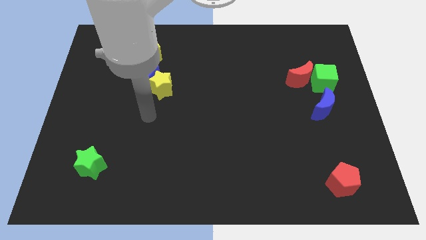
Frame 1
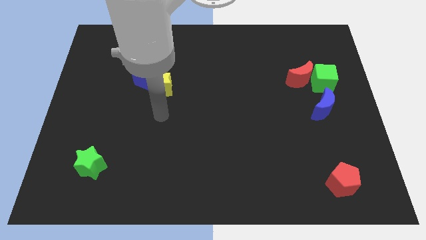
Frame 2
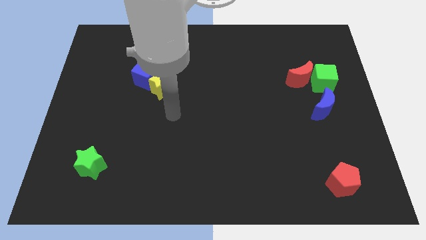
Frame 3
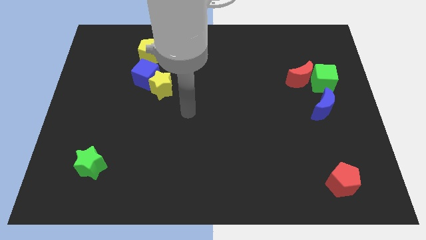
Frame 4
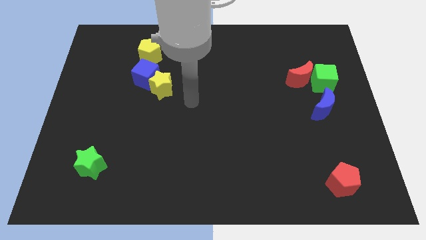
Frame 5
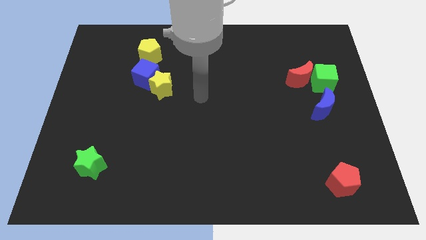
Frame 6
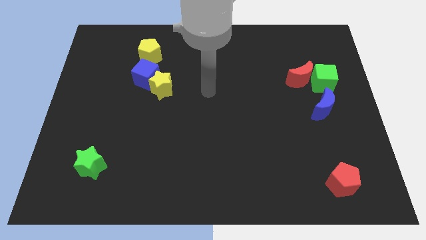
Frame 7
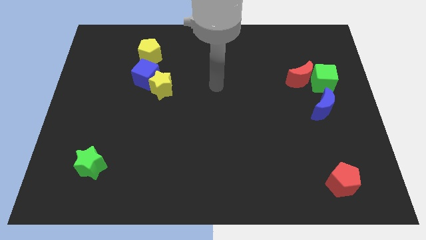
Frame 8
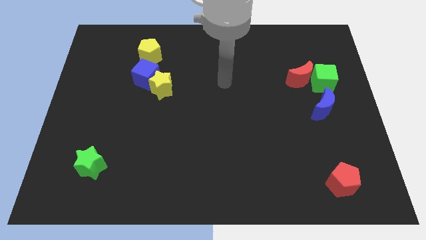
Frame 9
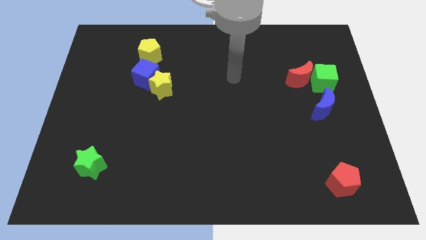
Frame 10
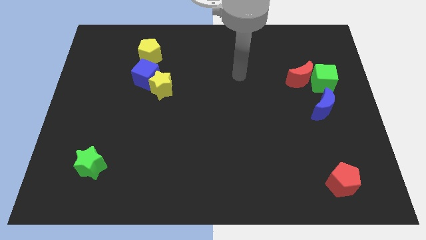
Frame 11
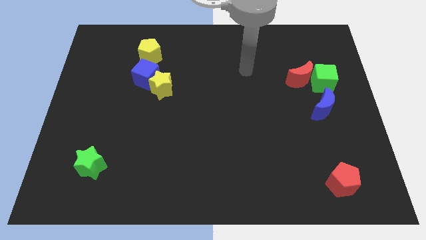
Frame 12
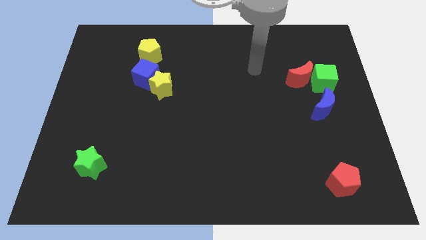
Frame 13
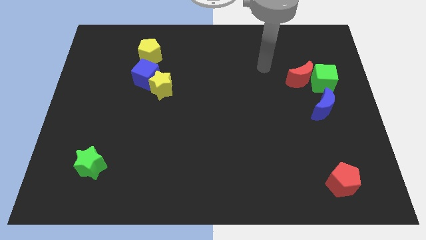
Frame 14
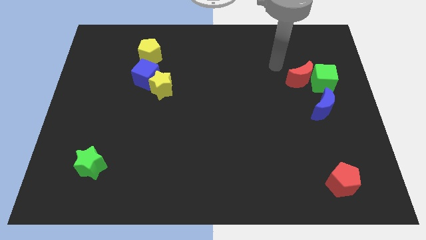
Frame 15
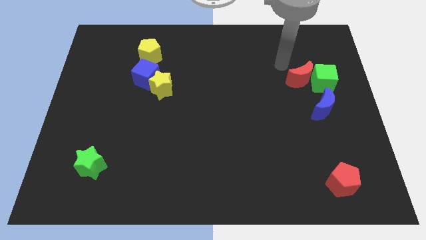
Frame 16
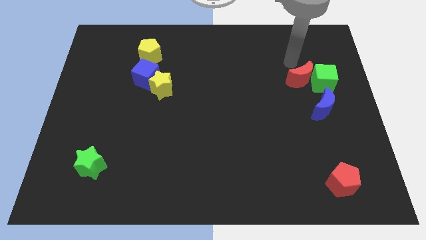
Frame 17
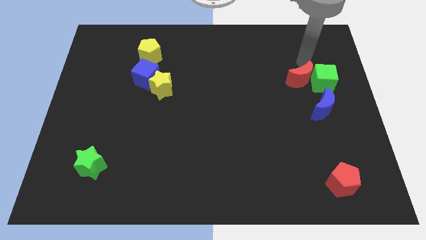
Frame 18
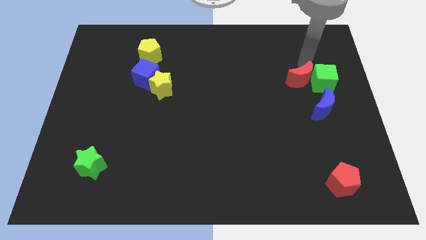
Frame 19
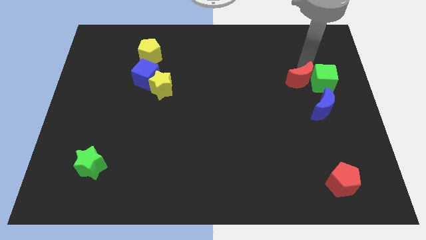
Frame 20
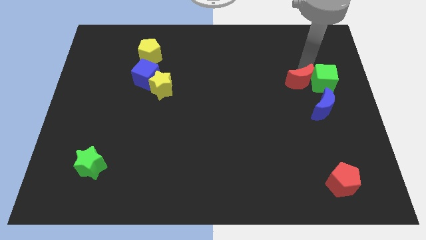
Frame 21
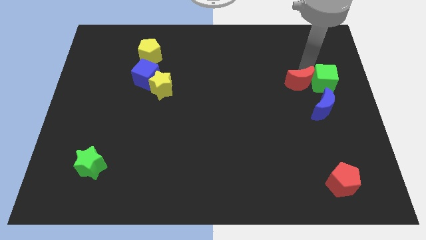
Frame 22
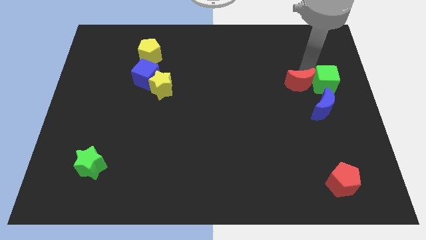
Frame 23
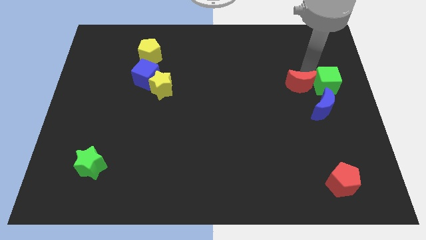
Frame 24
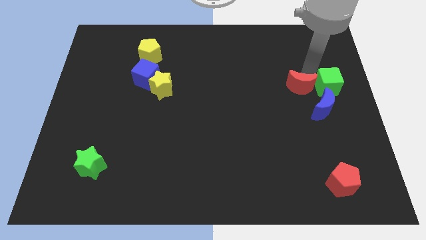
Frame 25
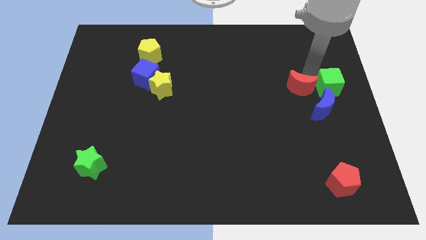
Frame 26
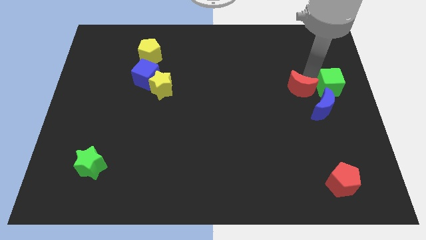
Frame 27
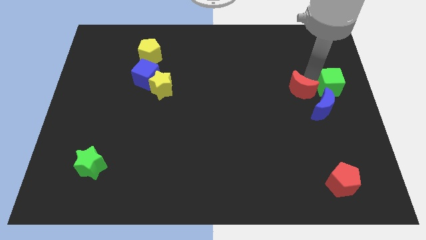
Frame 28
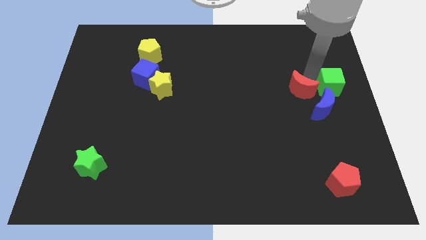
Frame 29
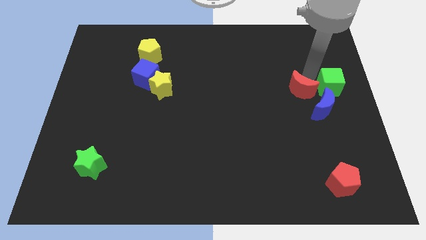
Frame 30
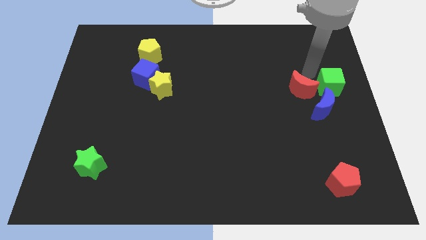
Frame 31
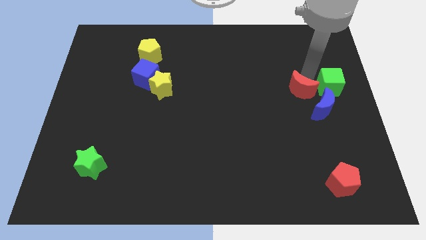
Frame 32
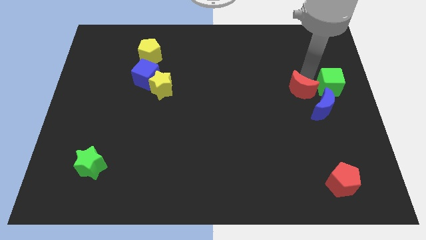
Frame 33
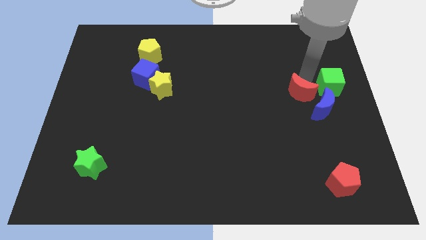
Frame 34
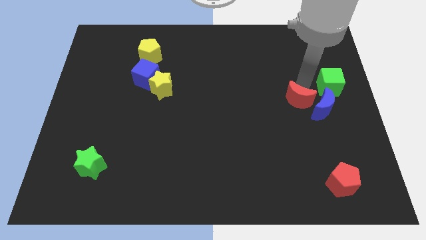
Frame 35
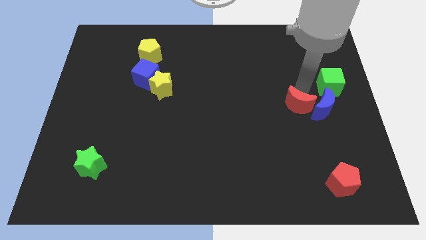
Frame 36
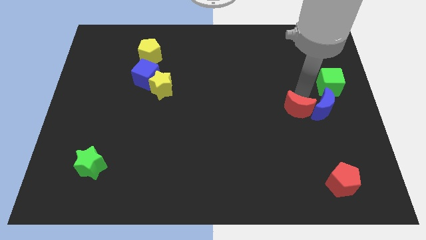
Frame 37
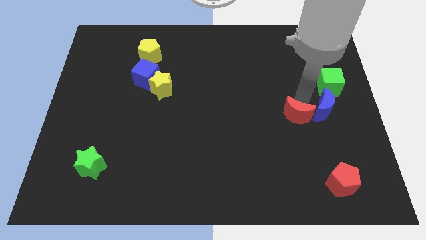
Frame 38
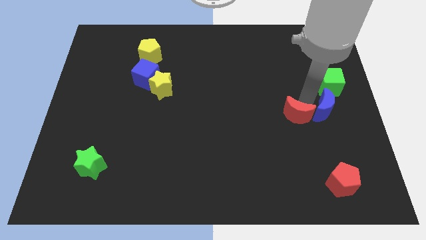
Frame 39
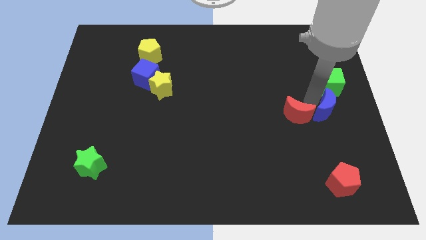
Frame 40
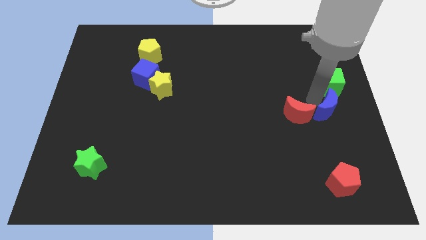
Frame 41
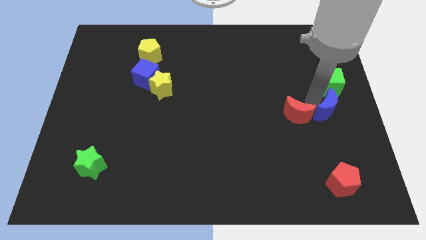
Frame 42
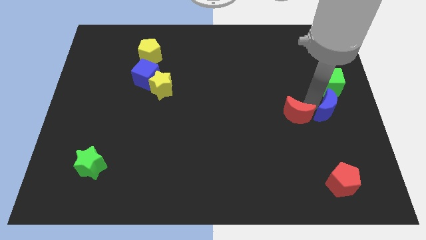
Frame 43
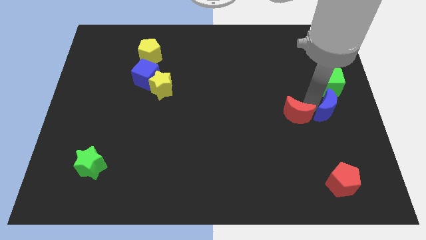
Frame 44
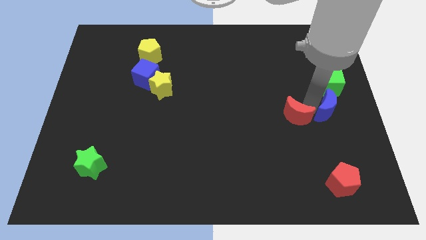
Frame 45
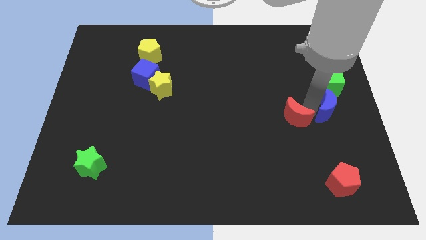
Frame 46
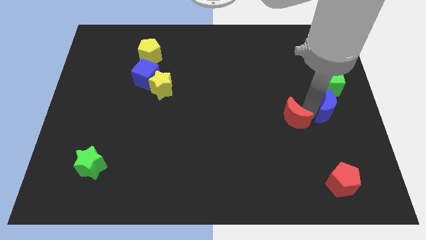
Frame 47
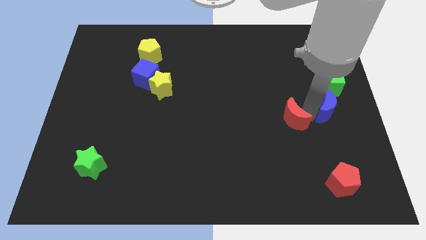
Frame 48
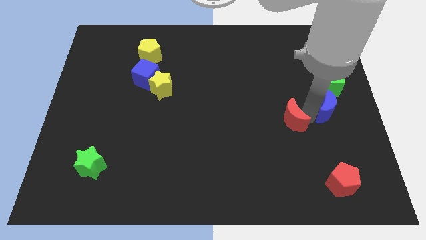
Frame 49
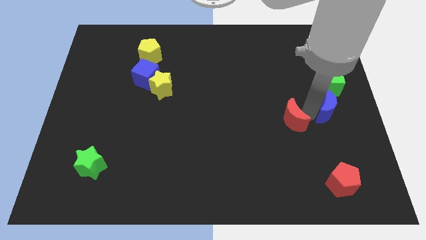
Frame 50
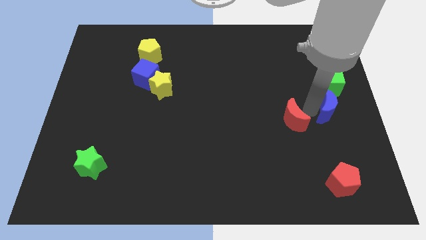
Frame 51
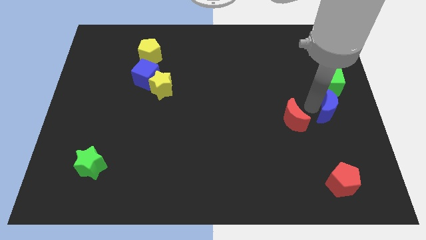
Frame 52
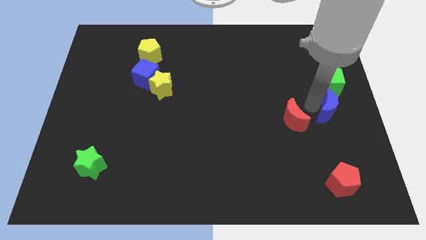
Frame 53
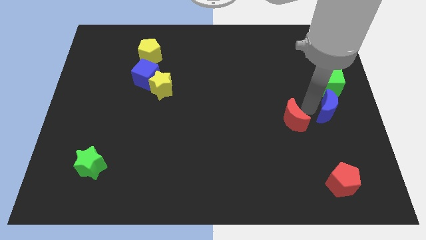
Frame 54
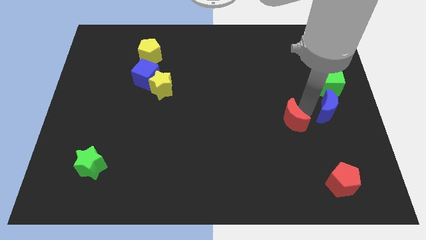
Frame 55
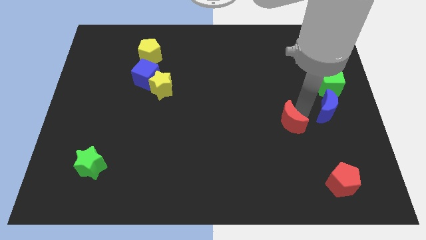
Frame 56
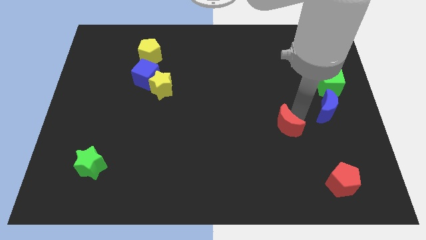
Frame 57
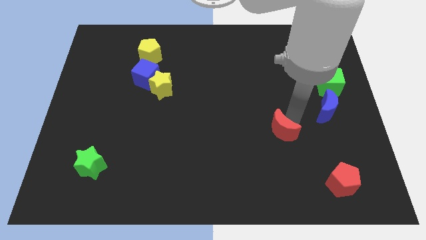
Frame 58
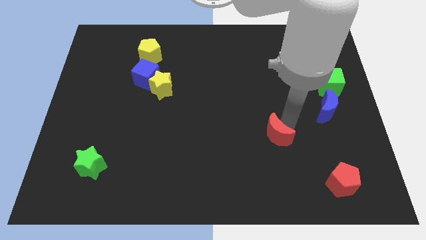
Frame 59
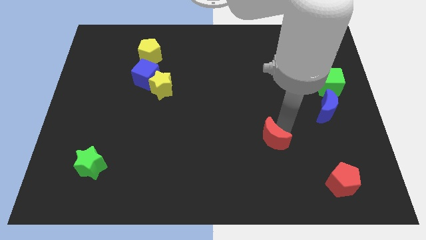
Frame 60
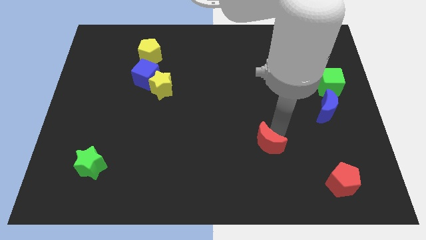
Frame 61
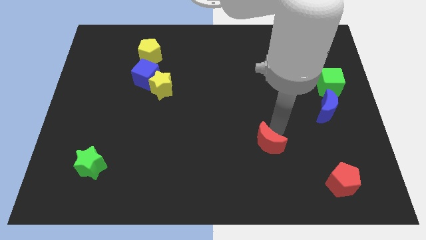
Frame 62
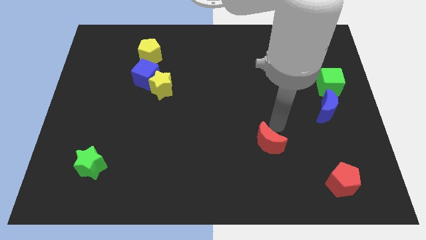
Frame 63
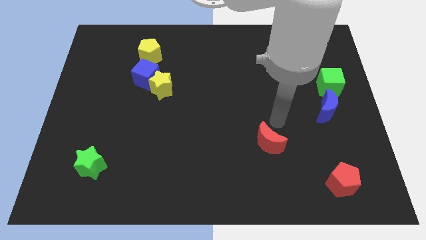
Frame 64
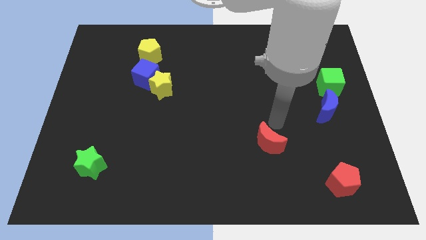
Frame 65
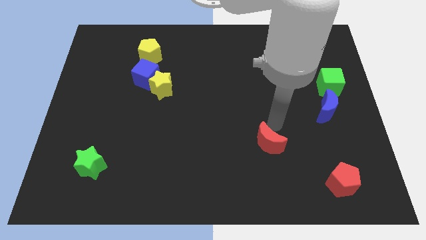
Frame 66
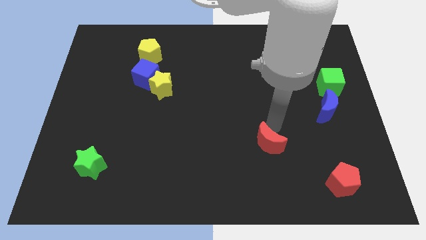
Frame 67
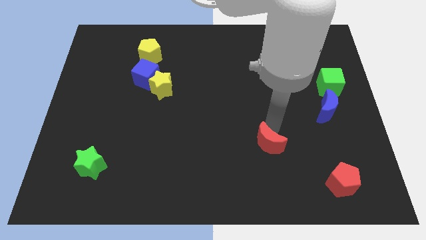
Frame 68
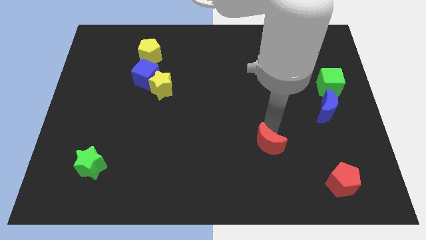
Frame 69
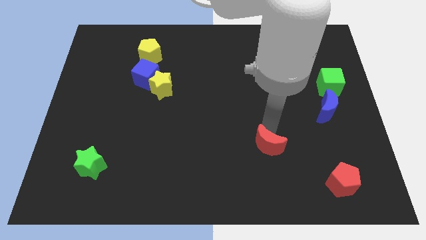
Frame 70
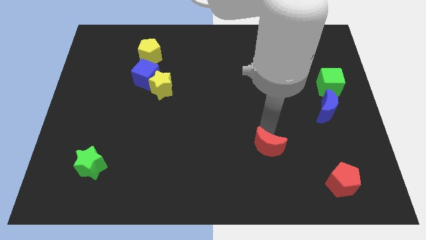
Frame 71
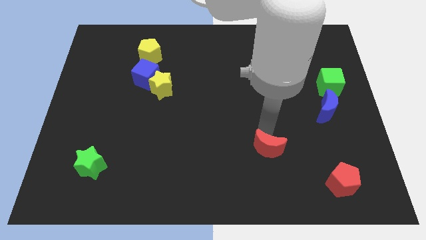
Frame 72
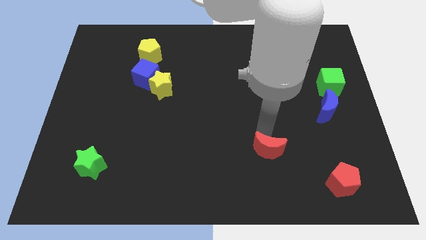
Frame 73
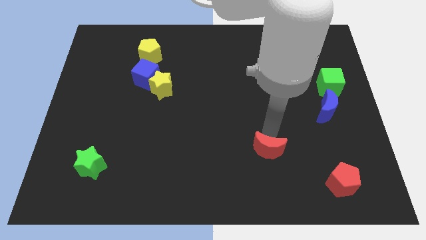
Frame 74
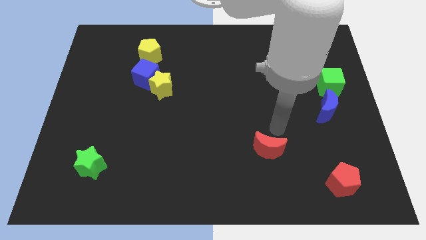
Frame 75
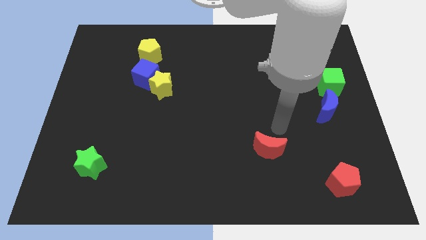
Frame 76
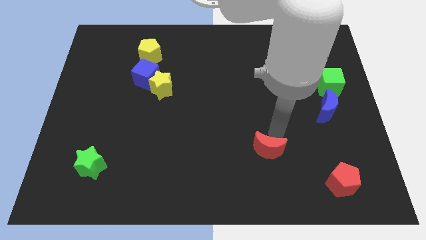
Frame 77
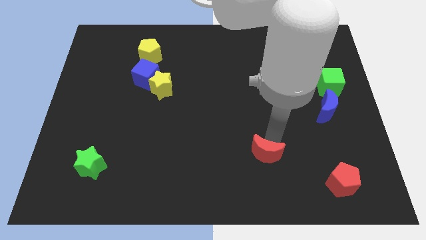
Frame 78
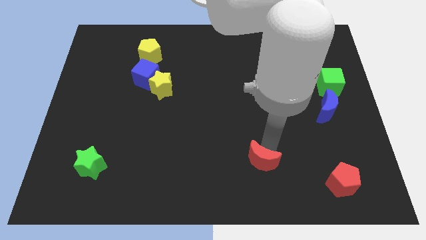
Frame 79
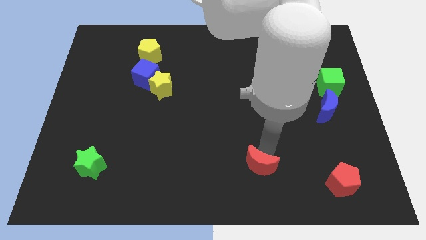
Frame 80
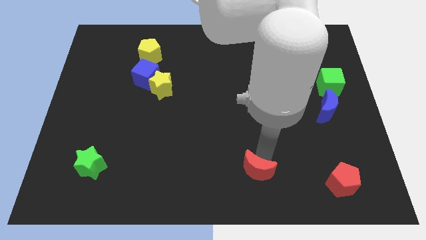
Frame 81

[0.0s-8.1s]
put the red moon to the bottom
